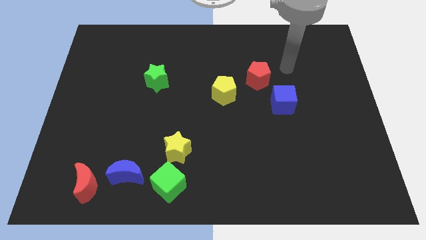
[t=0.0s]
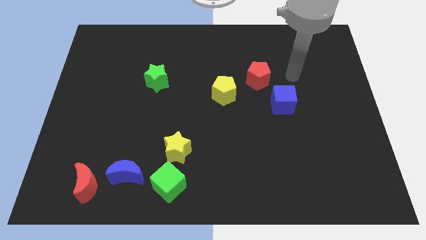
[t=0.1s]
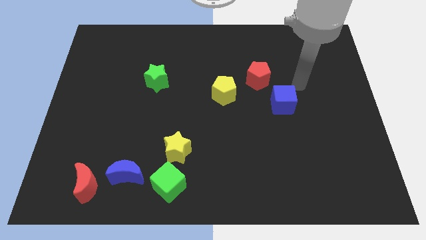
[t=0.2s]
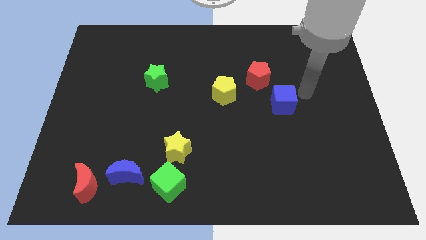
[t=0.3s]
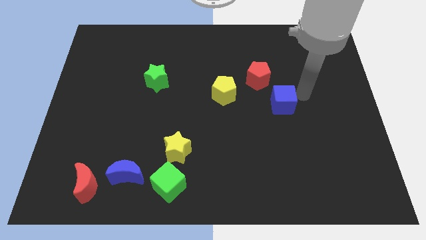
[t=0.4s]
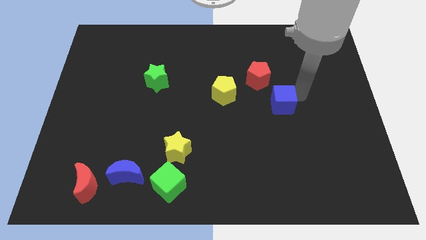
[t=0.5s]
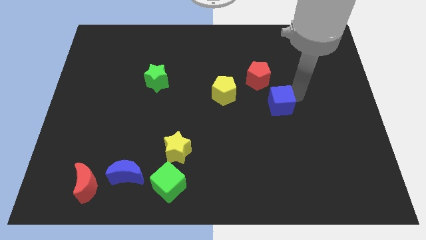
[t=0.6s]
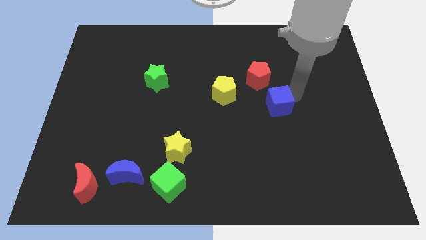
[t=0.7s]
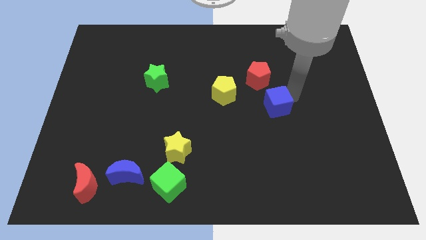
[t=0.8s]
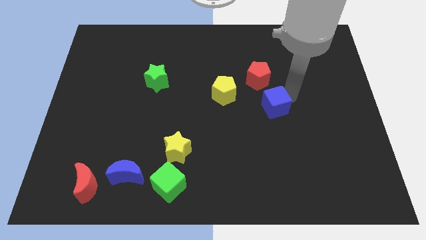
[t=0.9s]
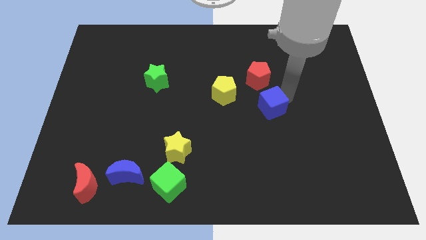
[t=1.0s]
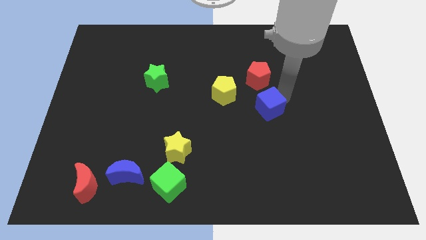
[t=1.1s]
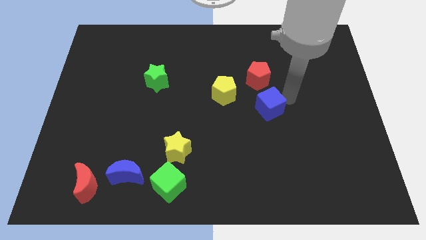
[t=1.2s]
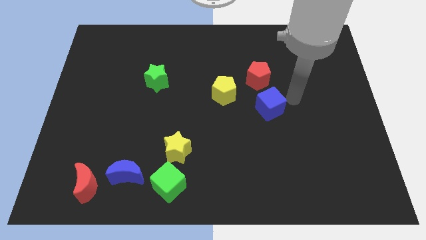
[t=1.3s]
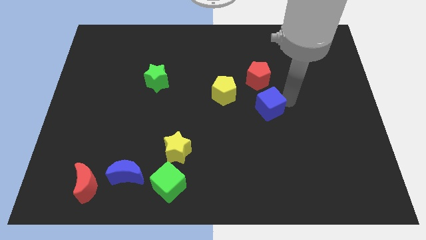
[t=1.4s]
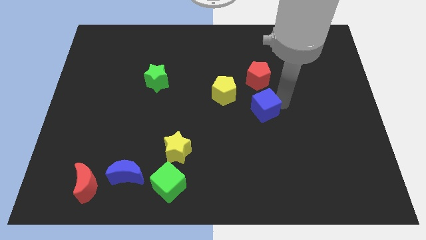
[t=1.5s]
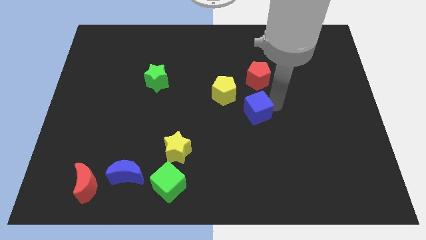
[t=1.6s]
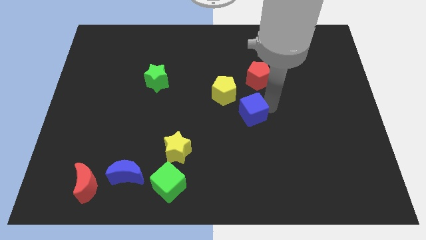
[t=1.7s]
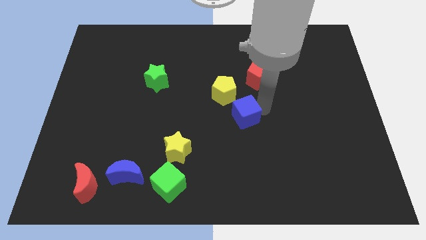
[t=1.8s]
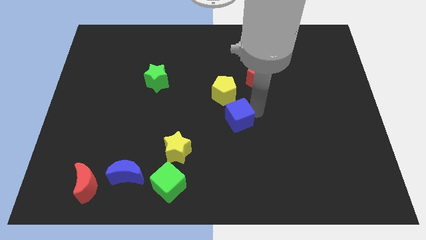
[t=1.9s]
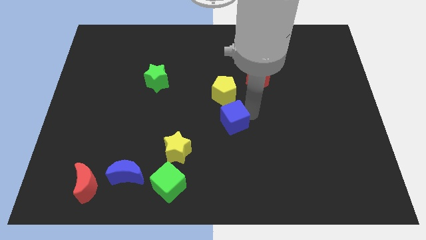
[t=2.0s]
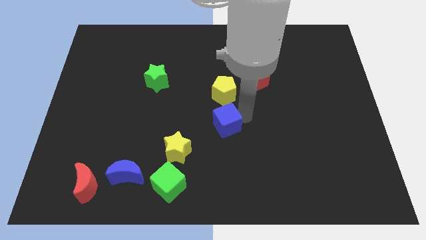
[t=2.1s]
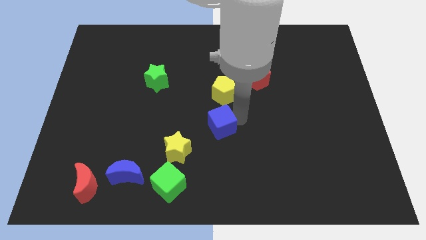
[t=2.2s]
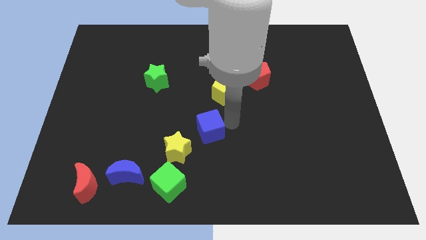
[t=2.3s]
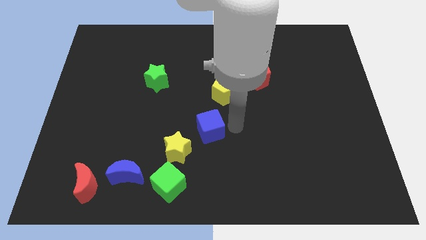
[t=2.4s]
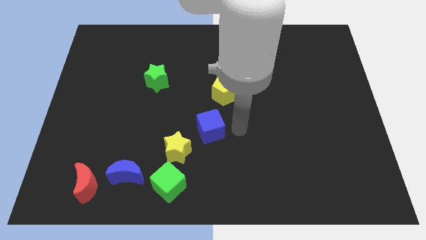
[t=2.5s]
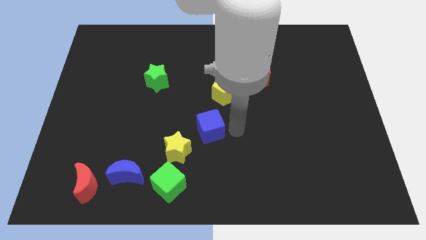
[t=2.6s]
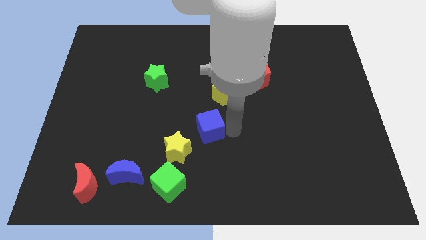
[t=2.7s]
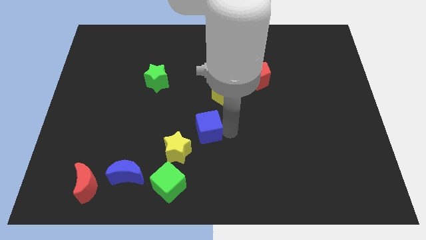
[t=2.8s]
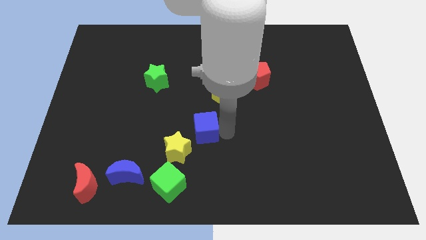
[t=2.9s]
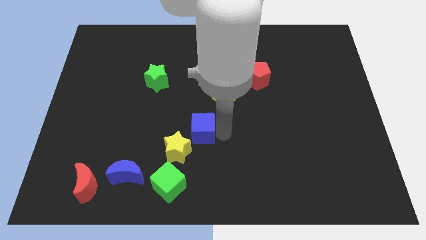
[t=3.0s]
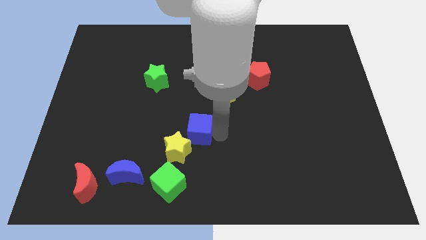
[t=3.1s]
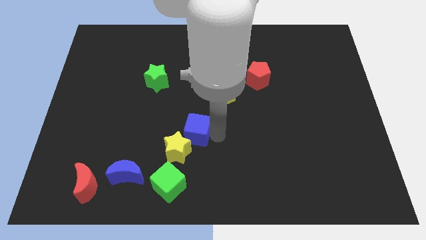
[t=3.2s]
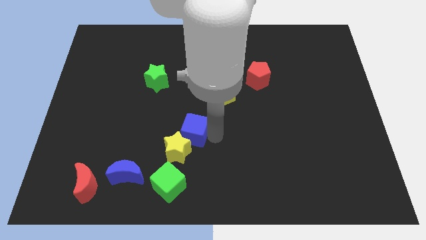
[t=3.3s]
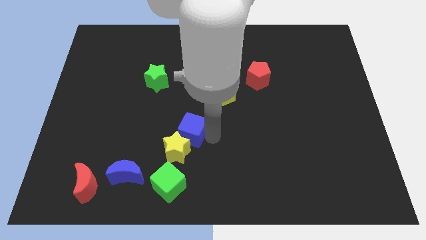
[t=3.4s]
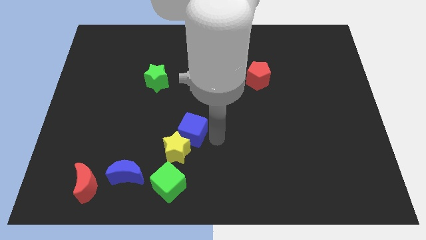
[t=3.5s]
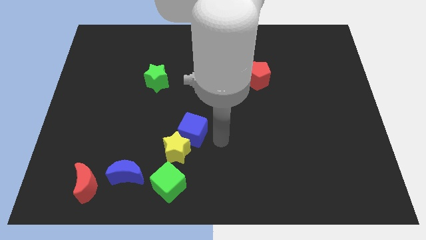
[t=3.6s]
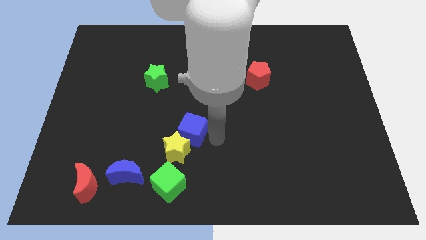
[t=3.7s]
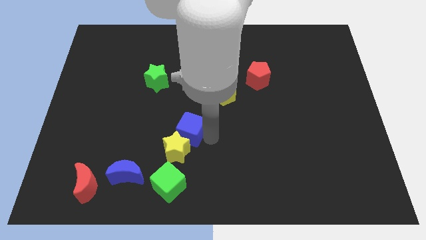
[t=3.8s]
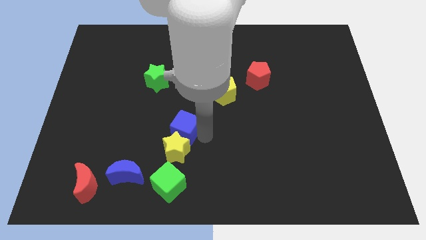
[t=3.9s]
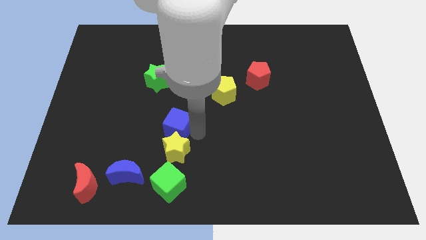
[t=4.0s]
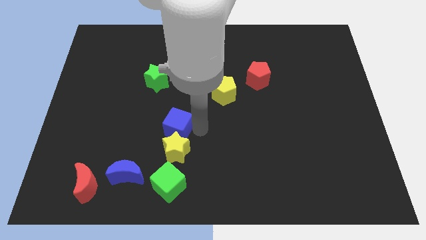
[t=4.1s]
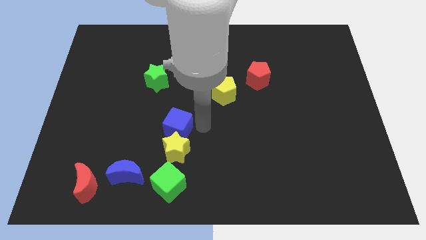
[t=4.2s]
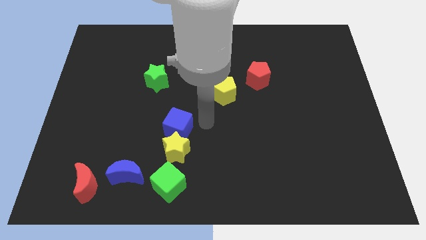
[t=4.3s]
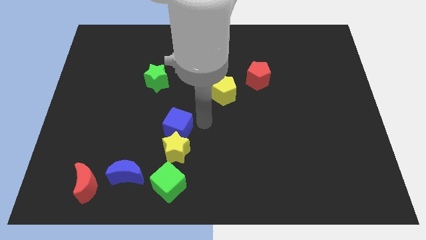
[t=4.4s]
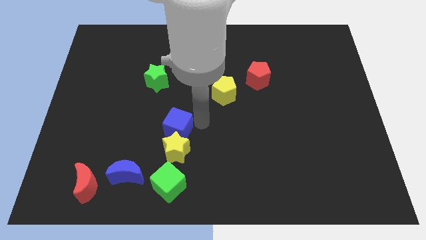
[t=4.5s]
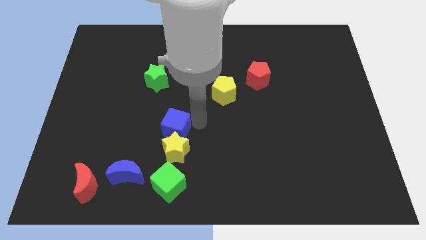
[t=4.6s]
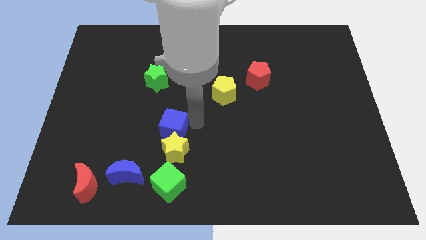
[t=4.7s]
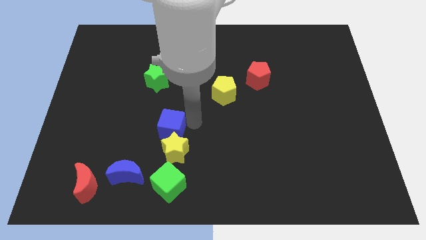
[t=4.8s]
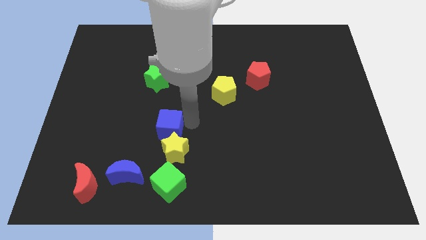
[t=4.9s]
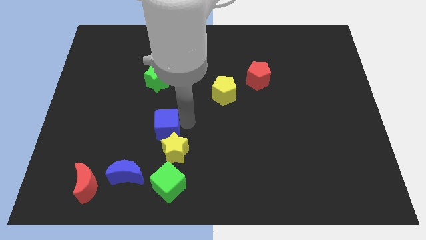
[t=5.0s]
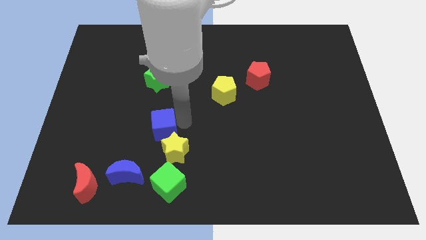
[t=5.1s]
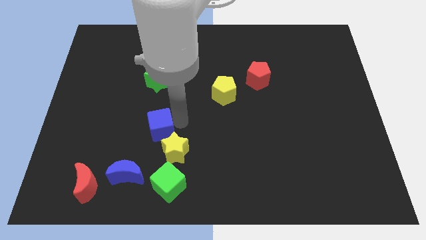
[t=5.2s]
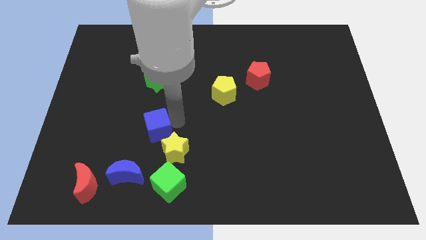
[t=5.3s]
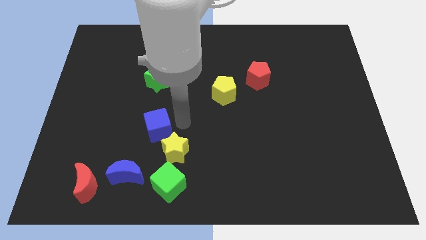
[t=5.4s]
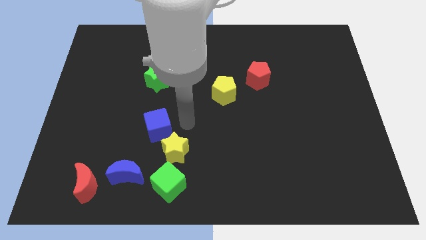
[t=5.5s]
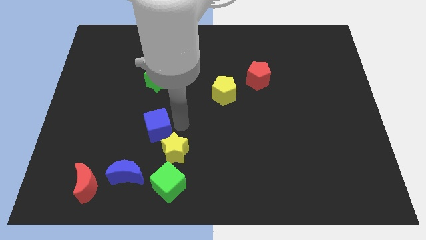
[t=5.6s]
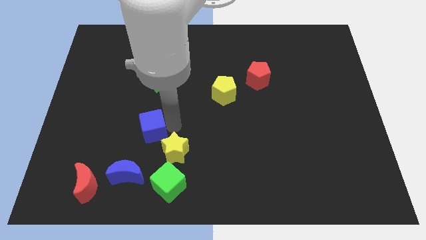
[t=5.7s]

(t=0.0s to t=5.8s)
move the blue cube to the top side of the blue moon

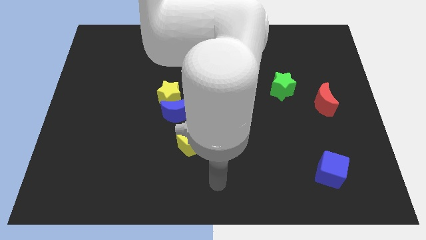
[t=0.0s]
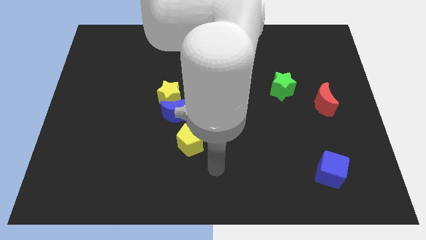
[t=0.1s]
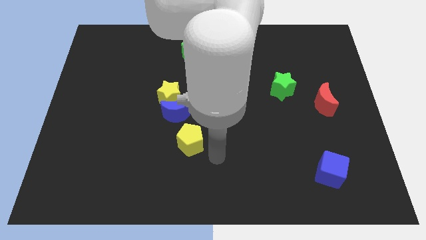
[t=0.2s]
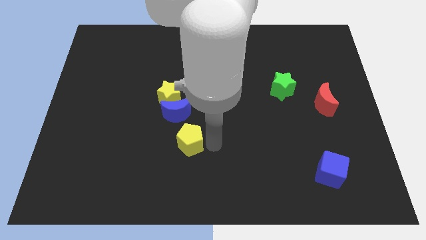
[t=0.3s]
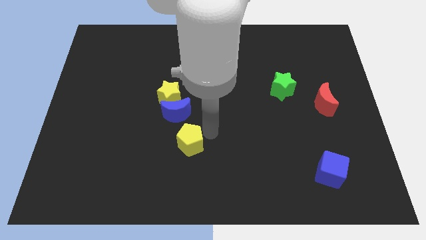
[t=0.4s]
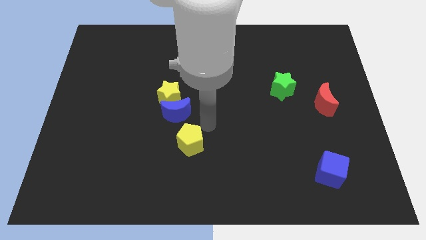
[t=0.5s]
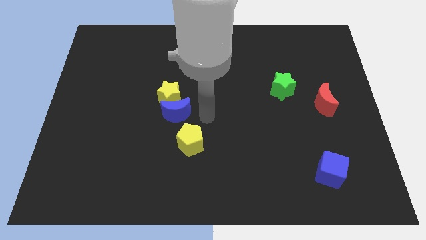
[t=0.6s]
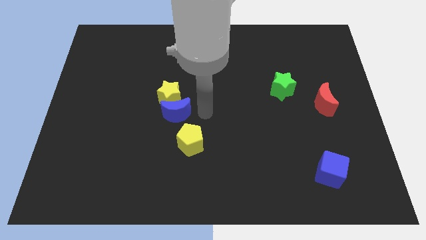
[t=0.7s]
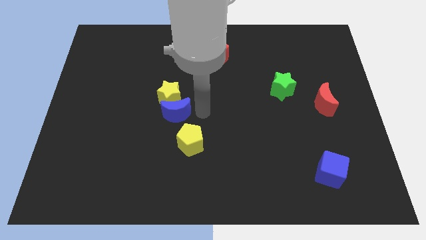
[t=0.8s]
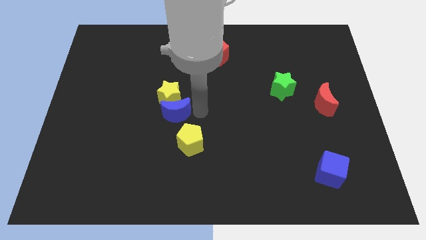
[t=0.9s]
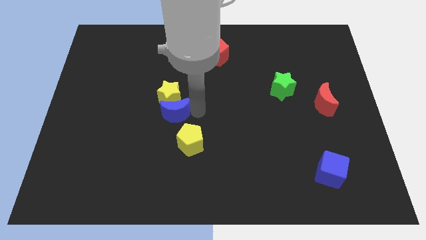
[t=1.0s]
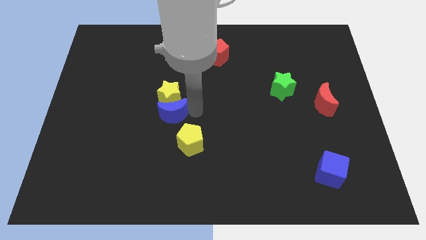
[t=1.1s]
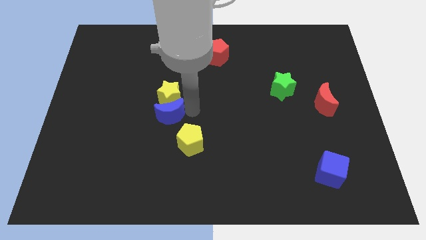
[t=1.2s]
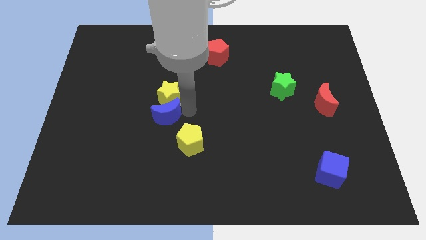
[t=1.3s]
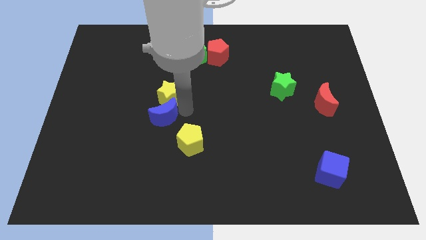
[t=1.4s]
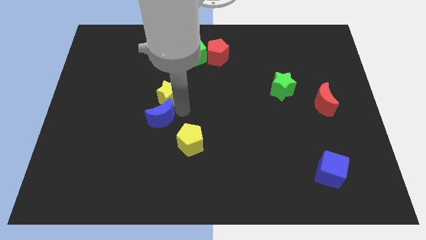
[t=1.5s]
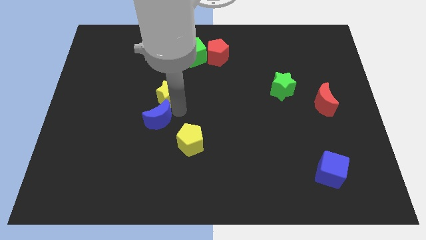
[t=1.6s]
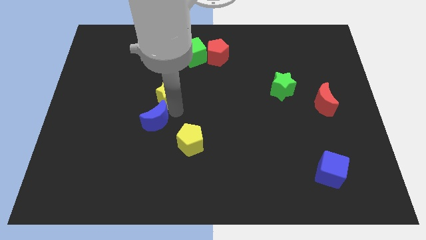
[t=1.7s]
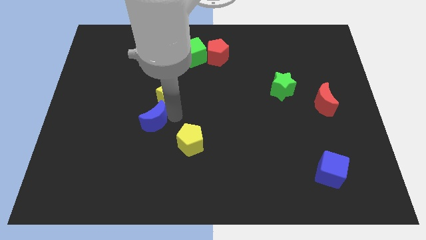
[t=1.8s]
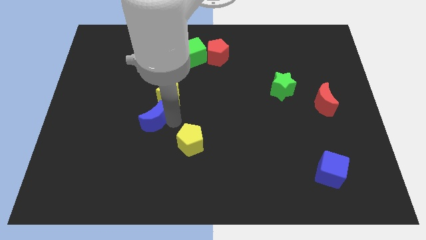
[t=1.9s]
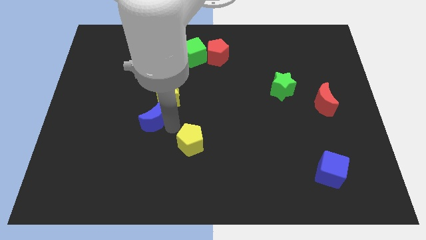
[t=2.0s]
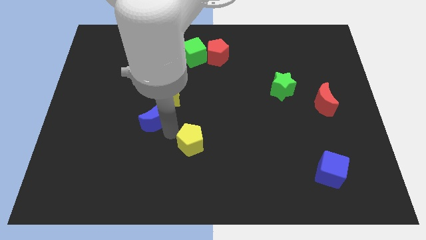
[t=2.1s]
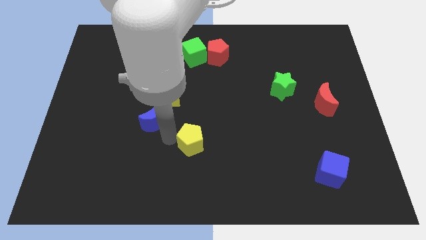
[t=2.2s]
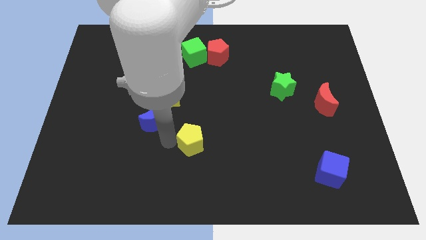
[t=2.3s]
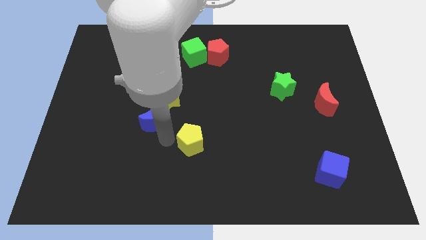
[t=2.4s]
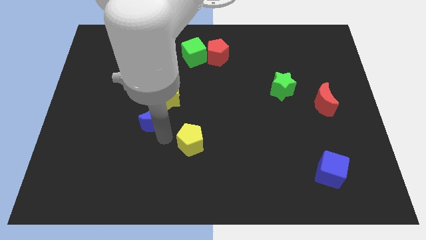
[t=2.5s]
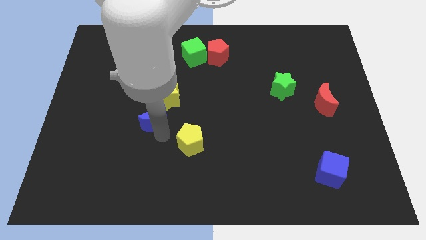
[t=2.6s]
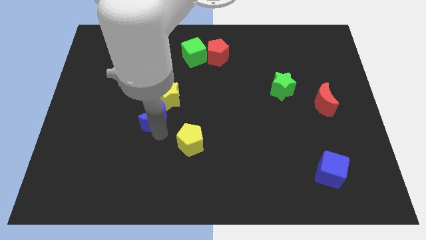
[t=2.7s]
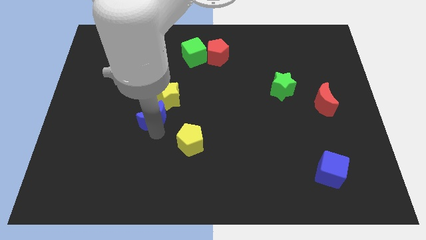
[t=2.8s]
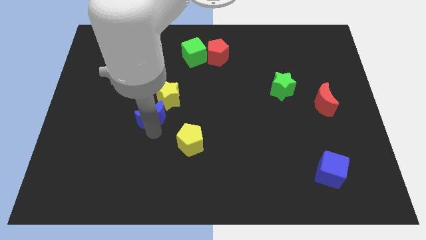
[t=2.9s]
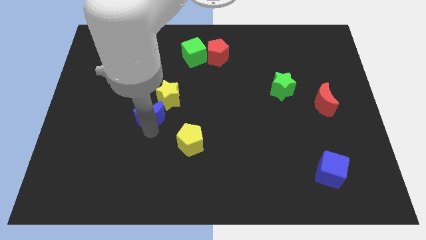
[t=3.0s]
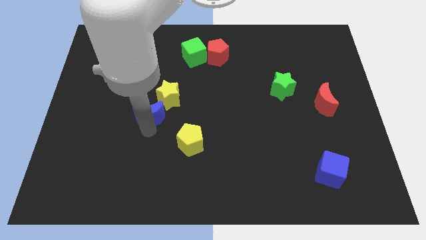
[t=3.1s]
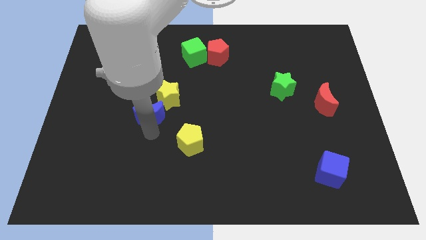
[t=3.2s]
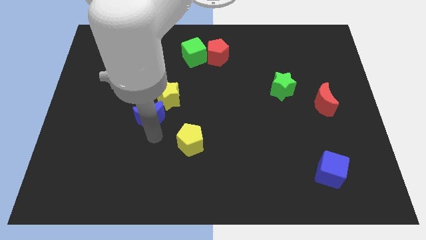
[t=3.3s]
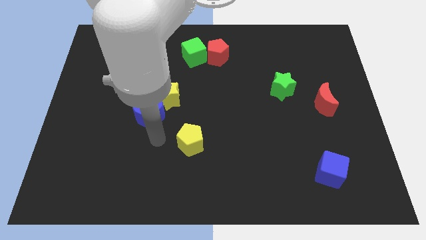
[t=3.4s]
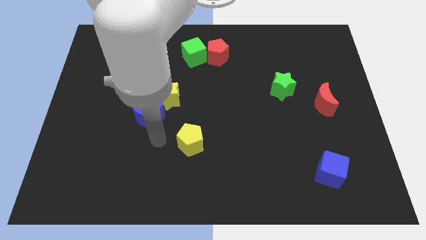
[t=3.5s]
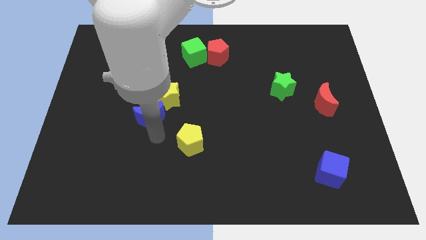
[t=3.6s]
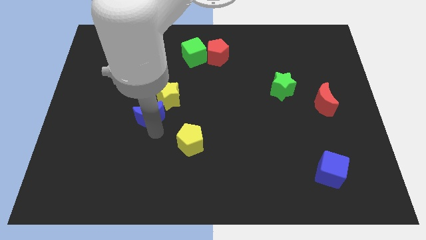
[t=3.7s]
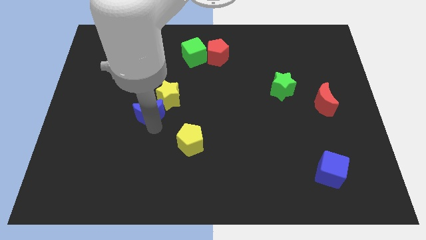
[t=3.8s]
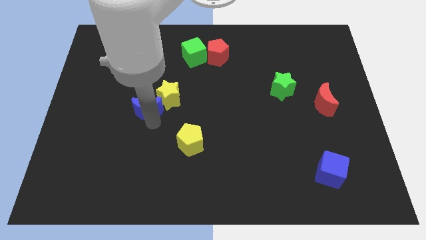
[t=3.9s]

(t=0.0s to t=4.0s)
move the blue moon to the left side of the yellow star
